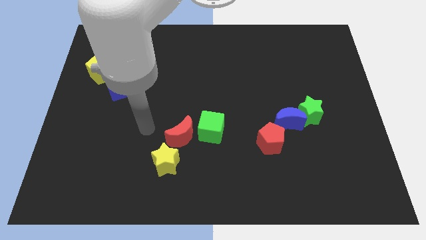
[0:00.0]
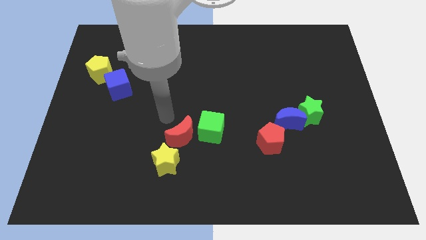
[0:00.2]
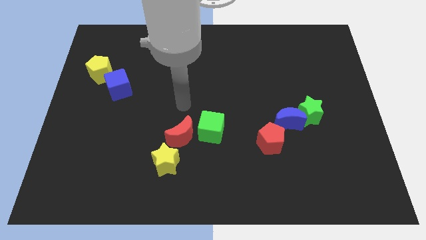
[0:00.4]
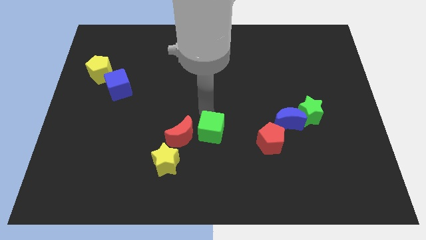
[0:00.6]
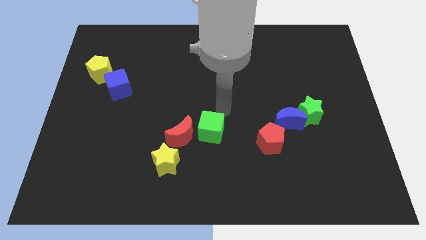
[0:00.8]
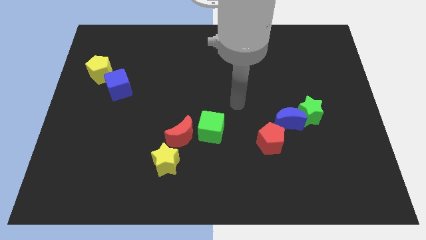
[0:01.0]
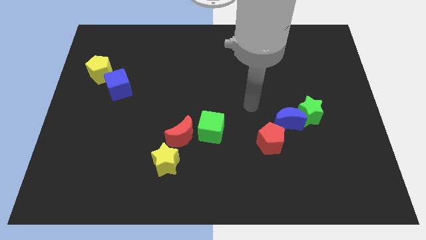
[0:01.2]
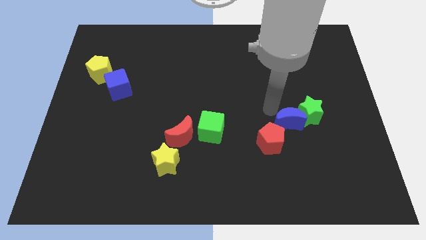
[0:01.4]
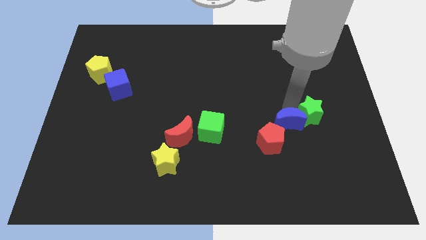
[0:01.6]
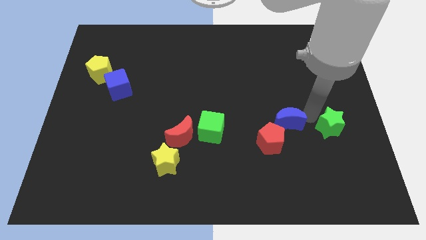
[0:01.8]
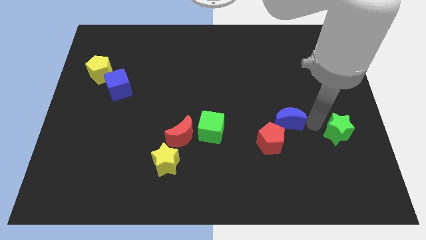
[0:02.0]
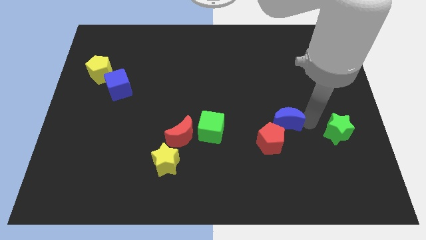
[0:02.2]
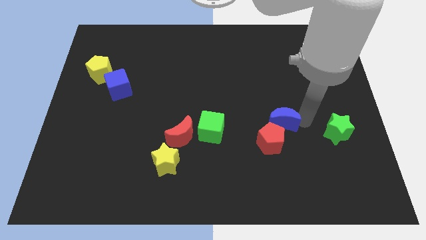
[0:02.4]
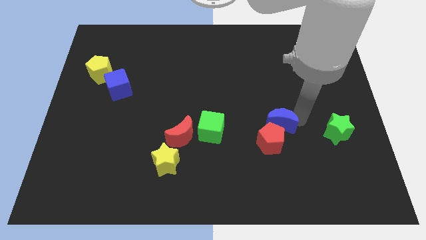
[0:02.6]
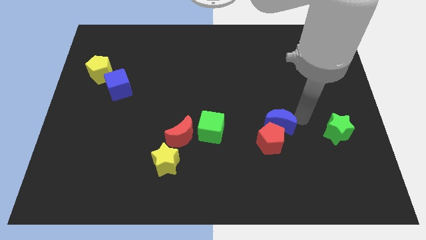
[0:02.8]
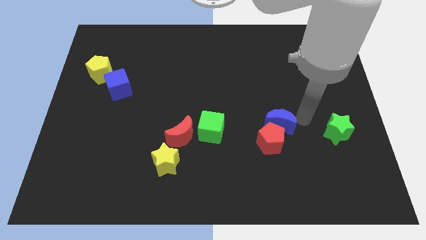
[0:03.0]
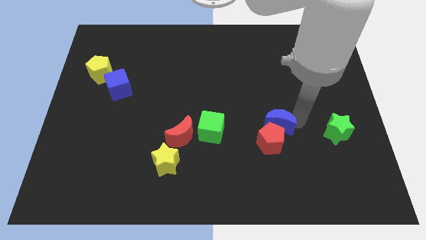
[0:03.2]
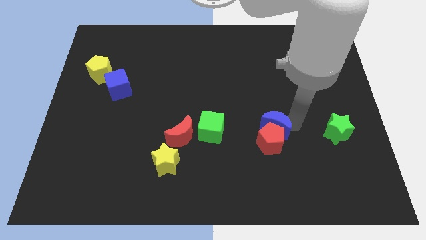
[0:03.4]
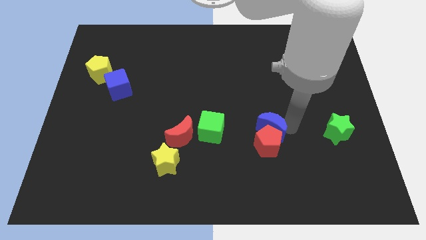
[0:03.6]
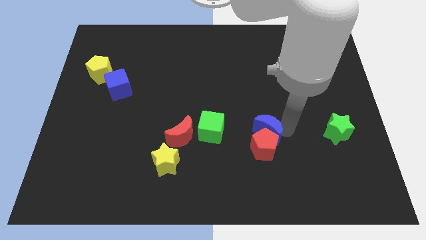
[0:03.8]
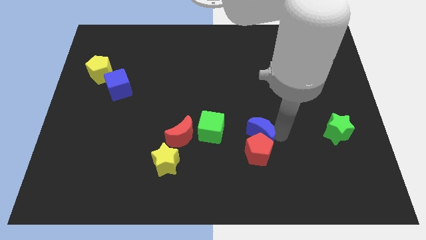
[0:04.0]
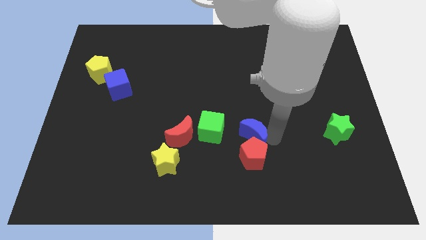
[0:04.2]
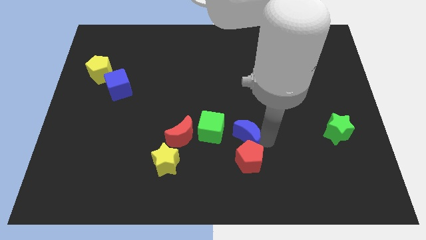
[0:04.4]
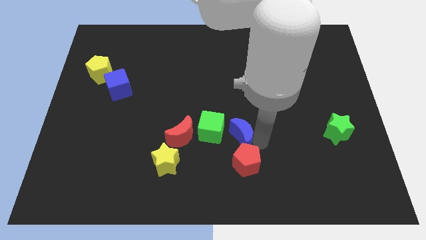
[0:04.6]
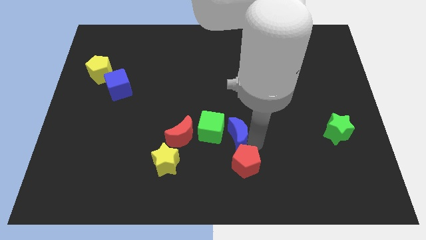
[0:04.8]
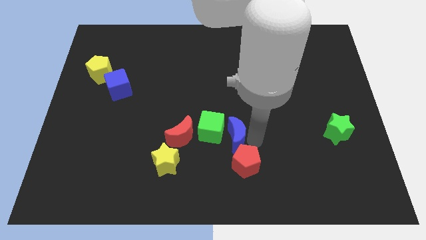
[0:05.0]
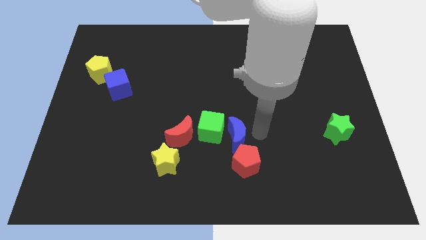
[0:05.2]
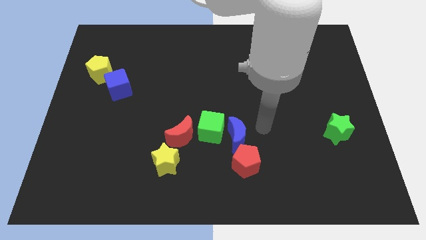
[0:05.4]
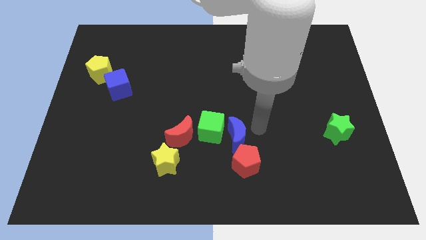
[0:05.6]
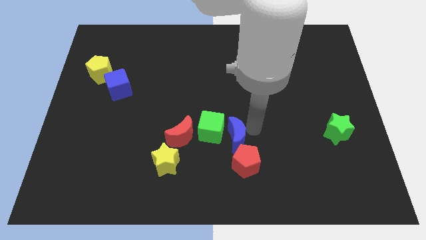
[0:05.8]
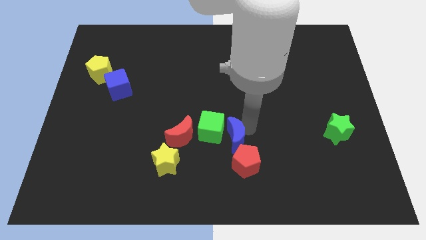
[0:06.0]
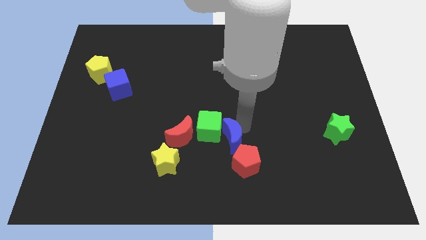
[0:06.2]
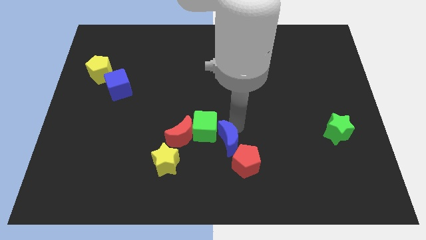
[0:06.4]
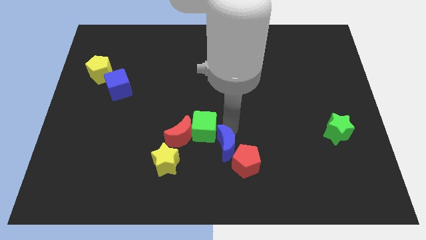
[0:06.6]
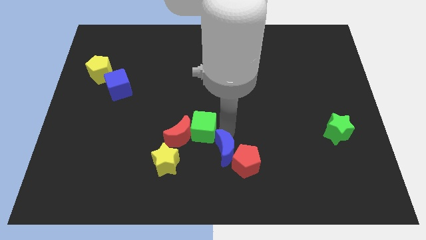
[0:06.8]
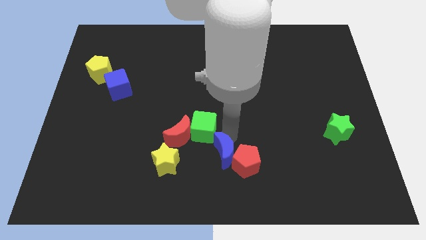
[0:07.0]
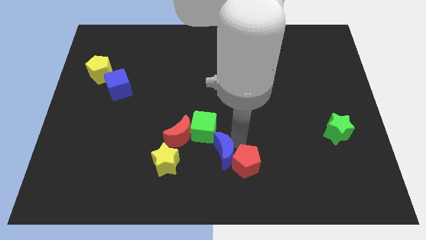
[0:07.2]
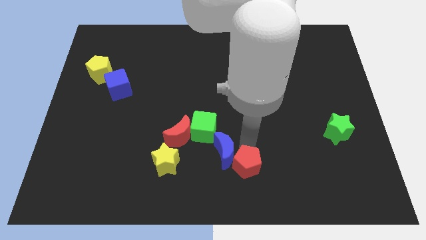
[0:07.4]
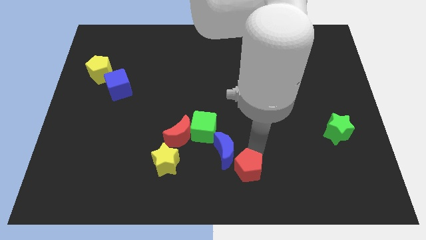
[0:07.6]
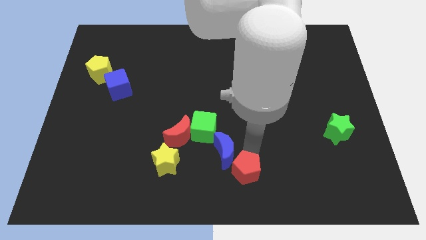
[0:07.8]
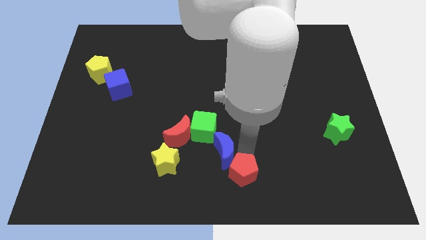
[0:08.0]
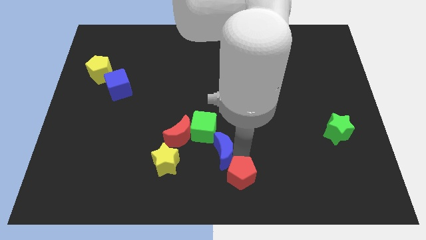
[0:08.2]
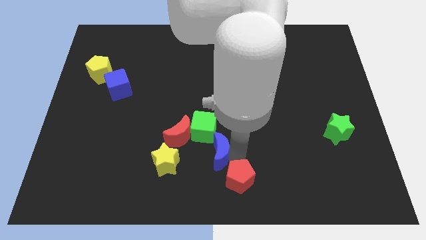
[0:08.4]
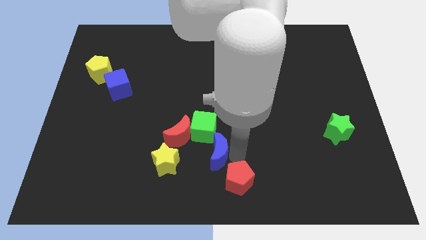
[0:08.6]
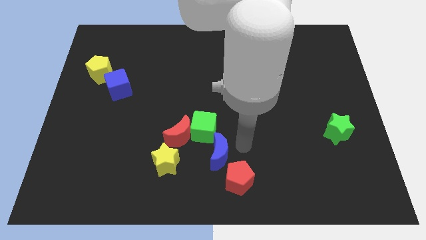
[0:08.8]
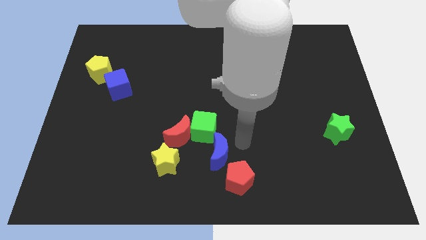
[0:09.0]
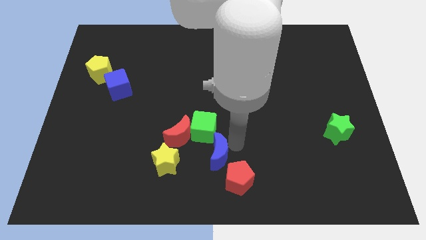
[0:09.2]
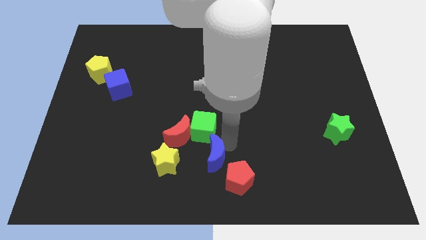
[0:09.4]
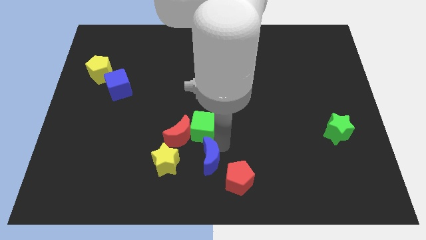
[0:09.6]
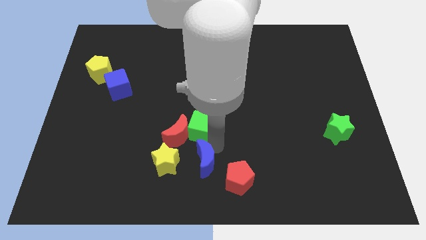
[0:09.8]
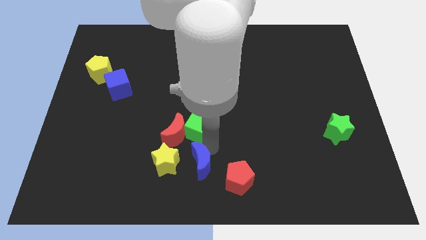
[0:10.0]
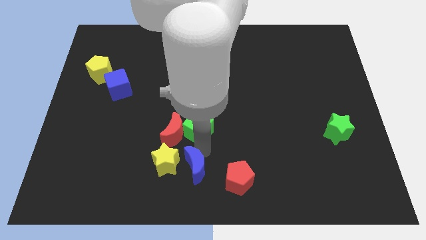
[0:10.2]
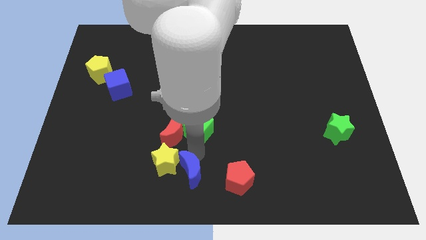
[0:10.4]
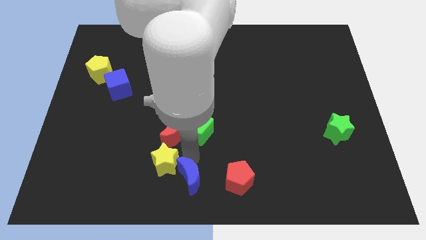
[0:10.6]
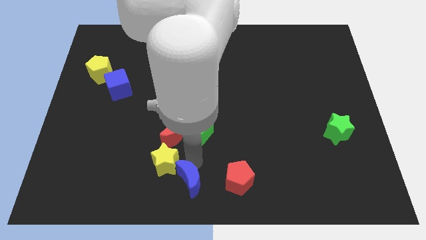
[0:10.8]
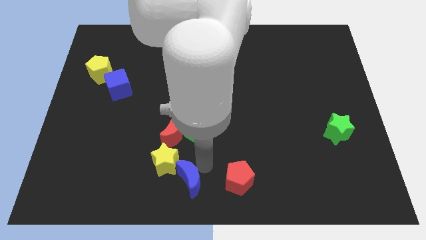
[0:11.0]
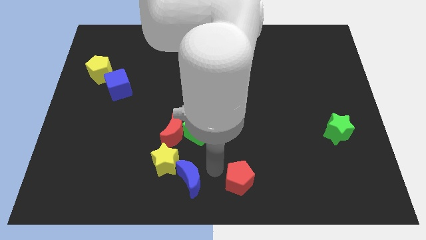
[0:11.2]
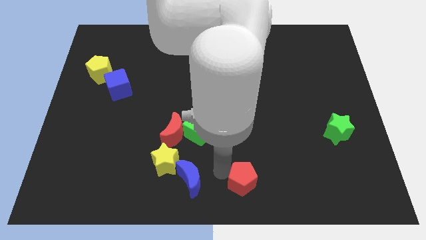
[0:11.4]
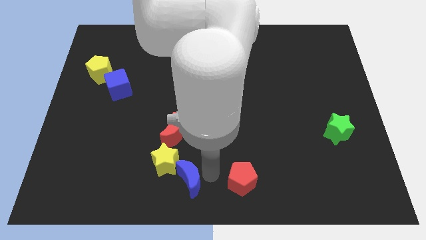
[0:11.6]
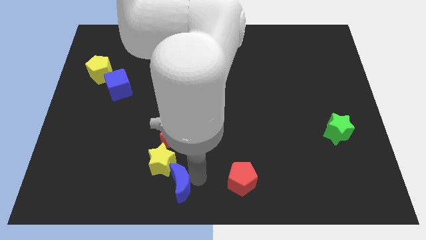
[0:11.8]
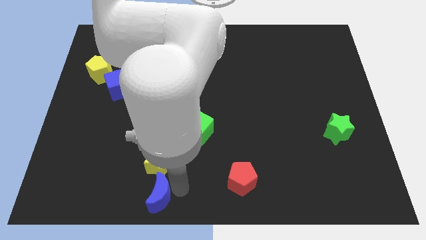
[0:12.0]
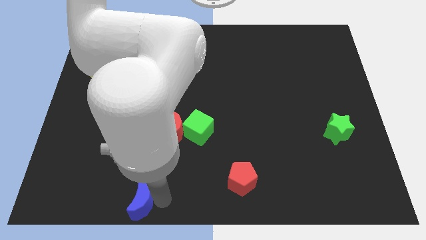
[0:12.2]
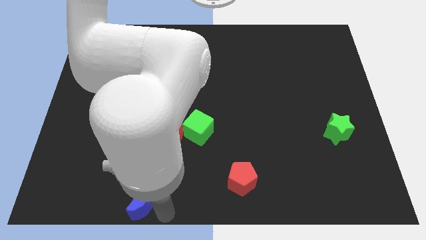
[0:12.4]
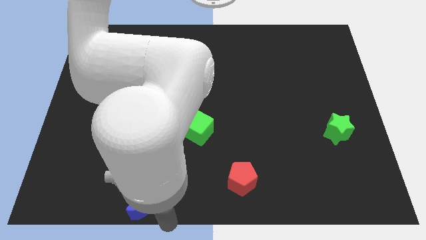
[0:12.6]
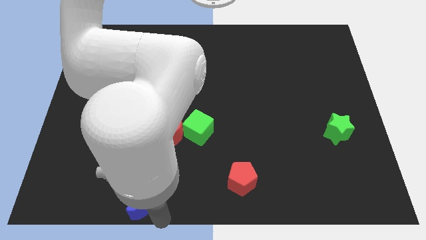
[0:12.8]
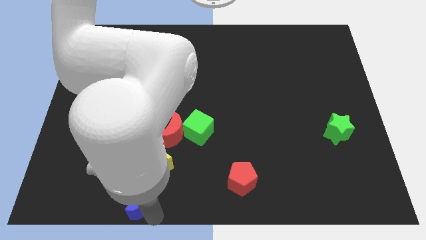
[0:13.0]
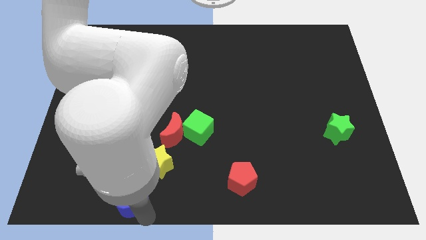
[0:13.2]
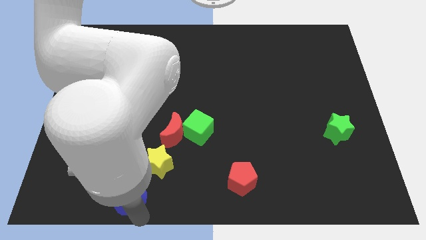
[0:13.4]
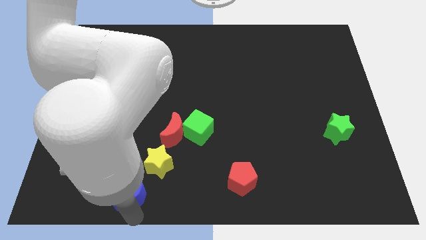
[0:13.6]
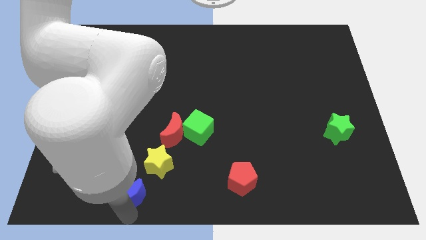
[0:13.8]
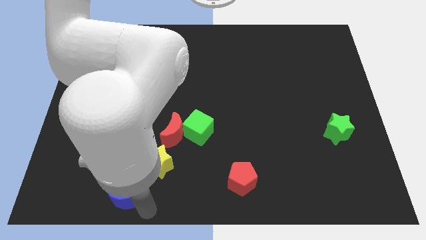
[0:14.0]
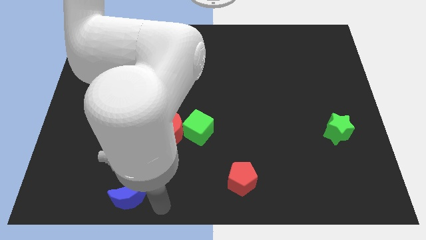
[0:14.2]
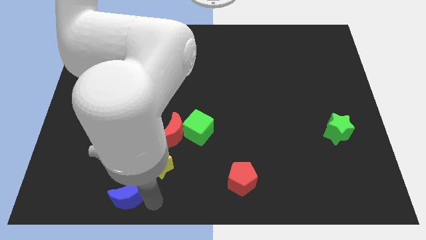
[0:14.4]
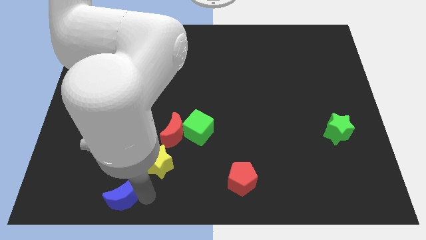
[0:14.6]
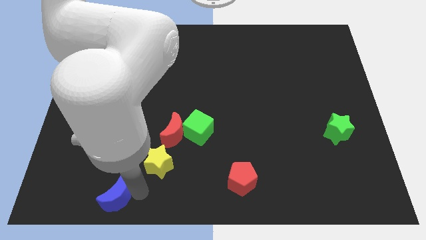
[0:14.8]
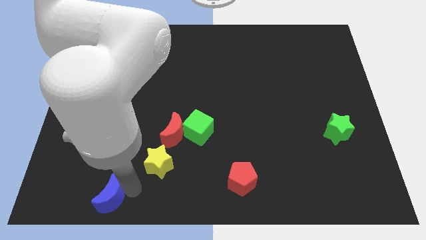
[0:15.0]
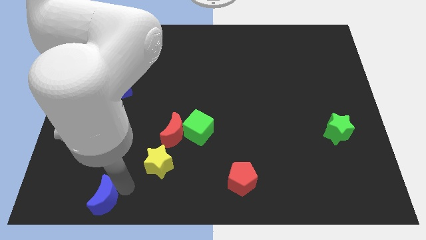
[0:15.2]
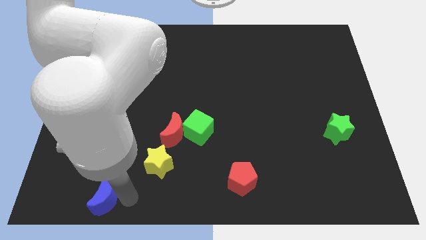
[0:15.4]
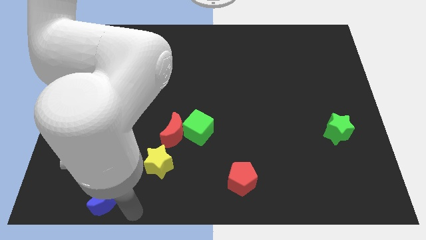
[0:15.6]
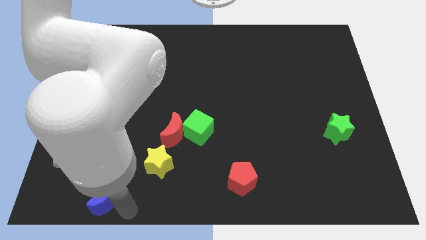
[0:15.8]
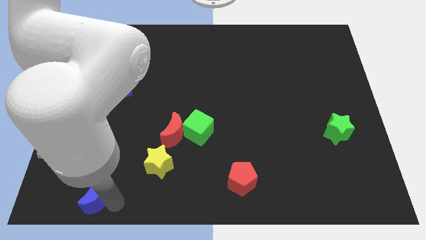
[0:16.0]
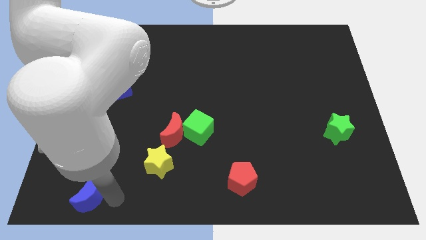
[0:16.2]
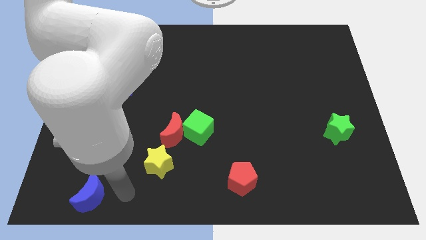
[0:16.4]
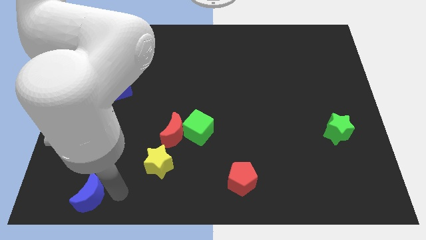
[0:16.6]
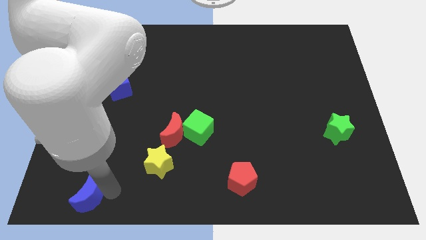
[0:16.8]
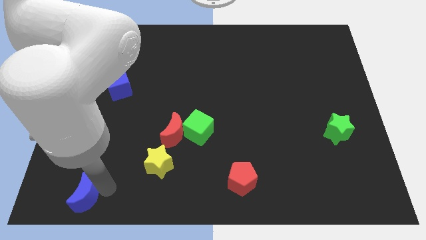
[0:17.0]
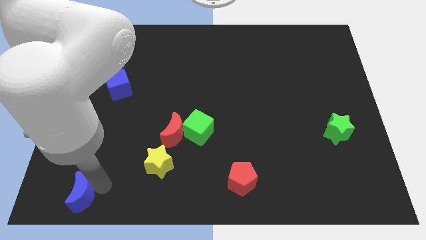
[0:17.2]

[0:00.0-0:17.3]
push the blue moon to the bottom left
